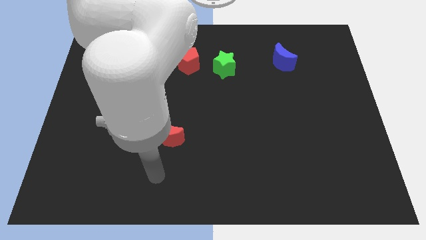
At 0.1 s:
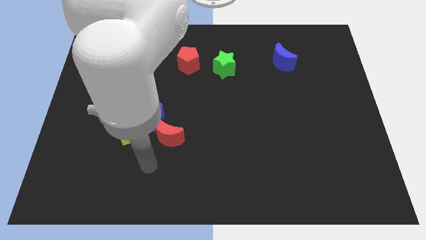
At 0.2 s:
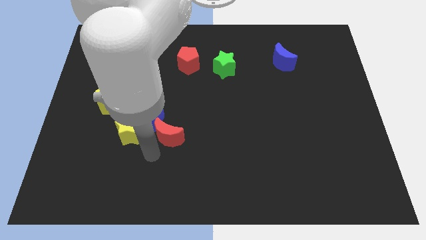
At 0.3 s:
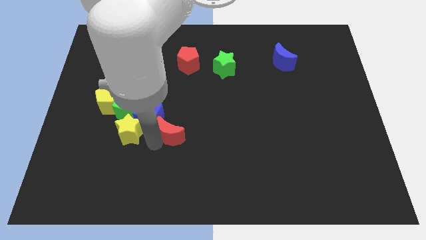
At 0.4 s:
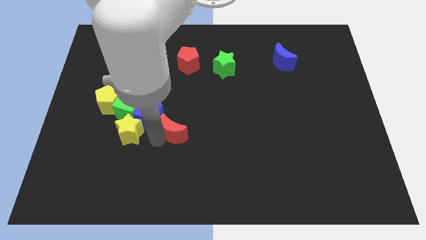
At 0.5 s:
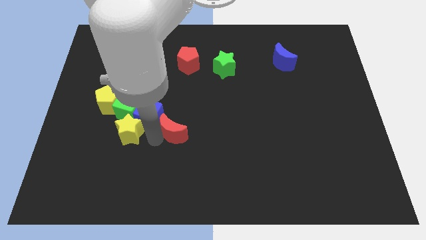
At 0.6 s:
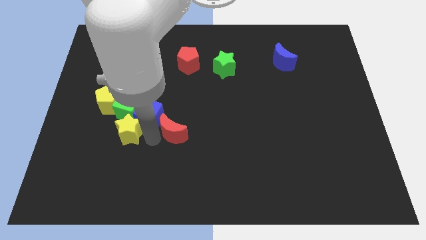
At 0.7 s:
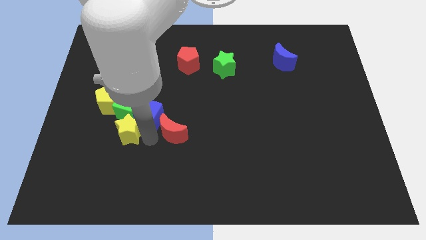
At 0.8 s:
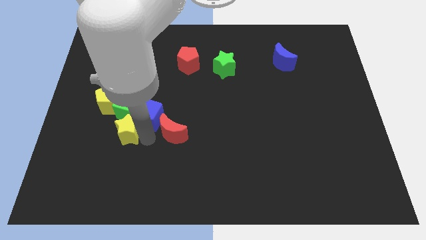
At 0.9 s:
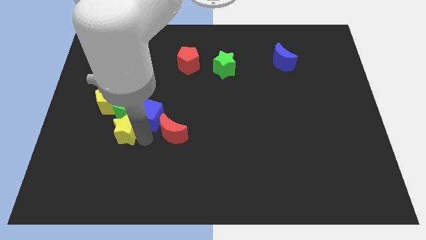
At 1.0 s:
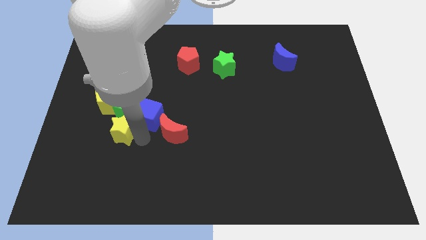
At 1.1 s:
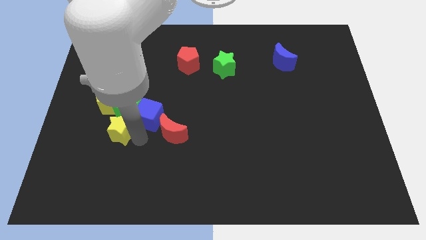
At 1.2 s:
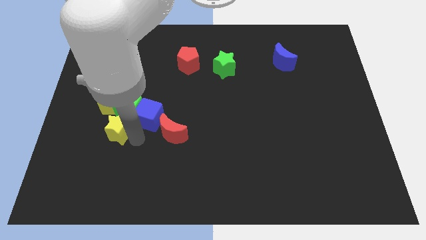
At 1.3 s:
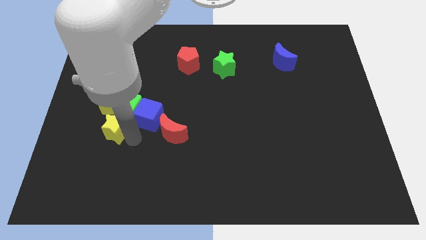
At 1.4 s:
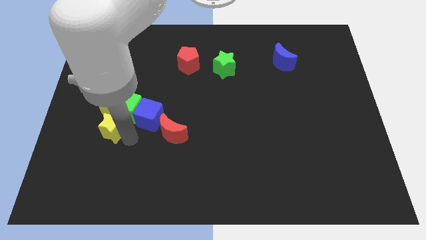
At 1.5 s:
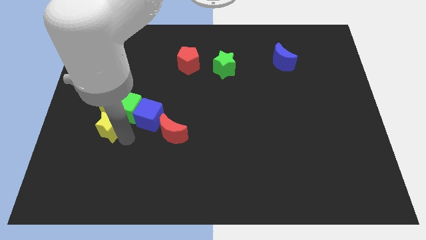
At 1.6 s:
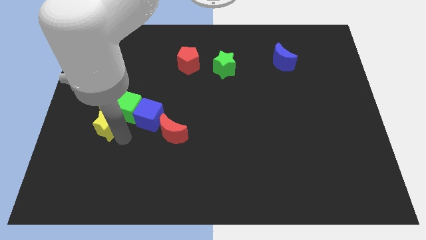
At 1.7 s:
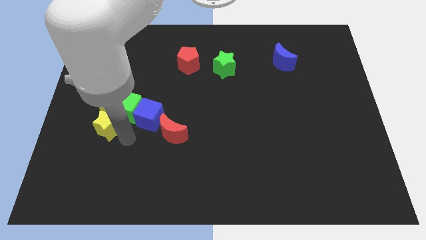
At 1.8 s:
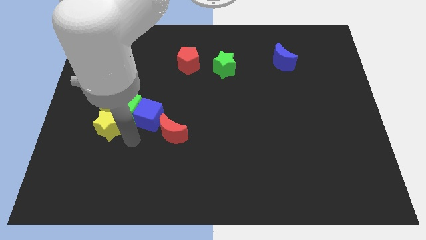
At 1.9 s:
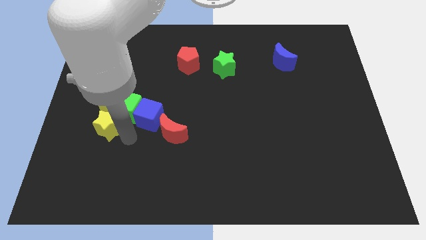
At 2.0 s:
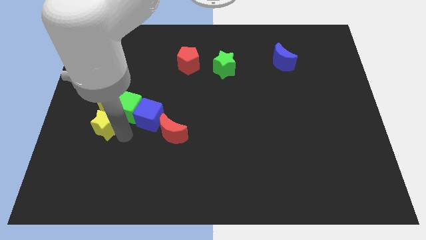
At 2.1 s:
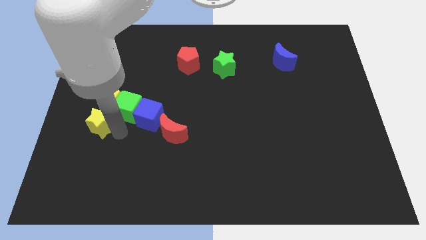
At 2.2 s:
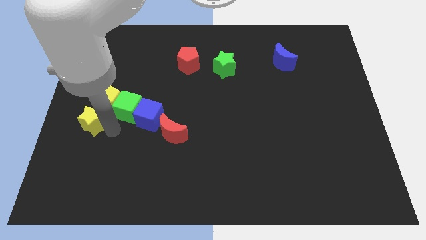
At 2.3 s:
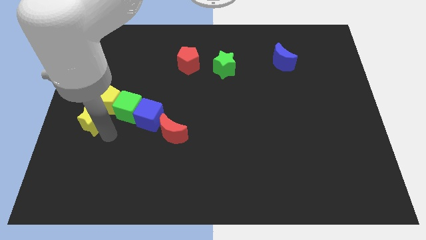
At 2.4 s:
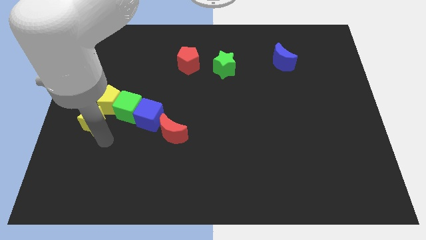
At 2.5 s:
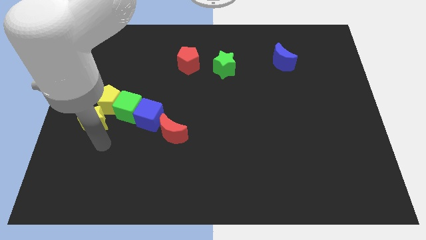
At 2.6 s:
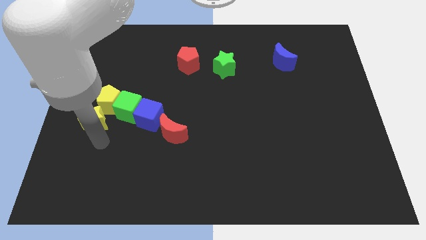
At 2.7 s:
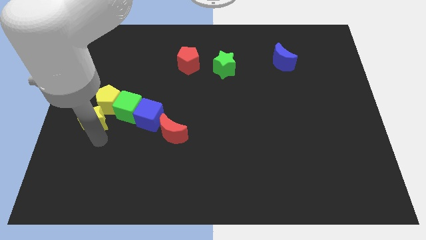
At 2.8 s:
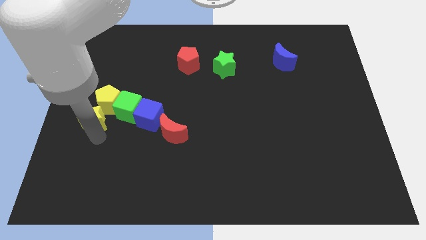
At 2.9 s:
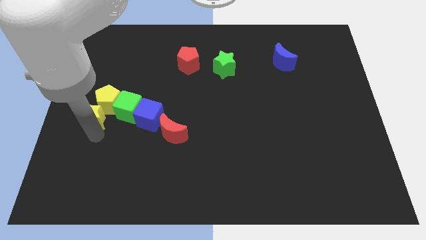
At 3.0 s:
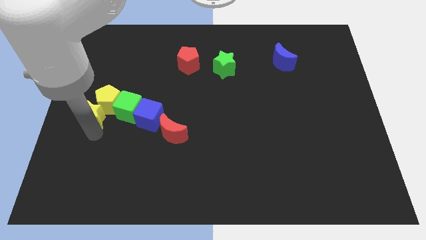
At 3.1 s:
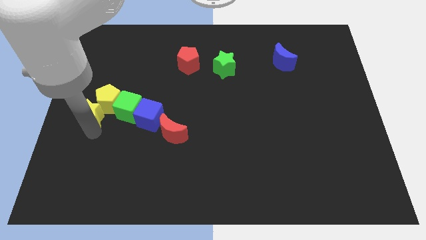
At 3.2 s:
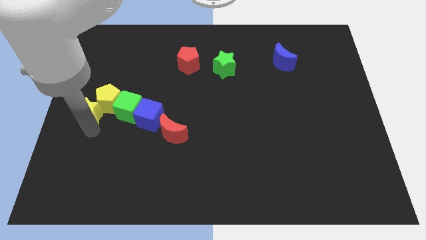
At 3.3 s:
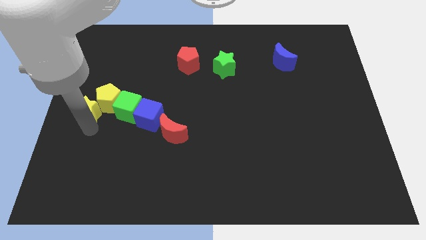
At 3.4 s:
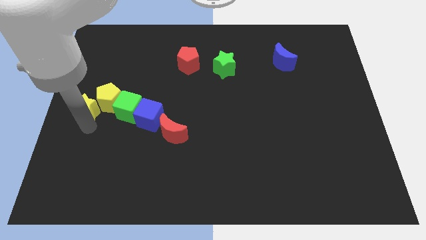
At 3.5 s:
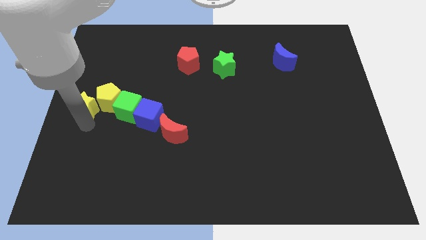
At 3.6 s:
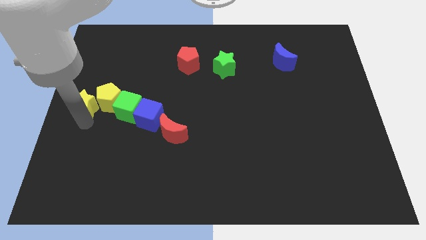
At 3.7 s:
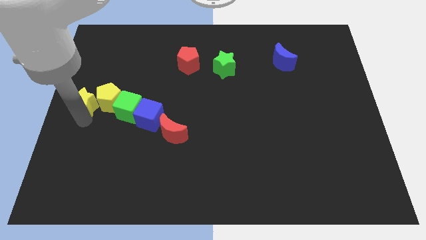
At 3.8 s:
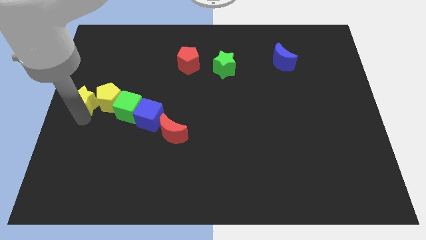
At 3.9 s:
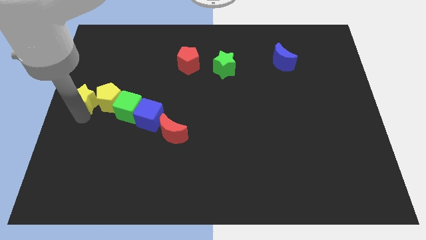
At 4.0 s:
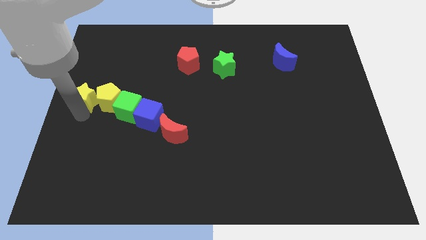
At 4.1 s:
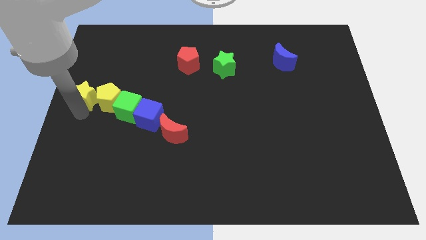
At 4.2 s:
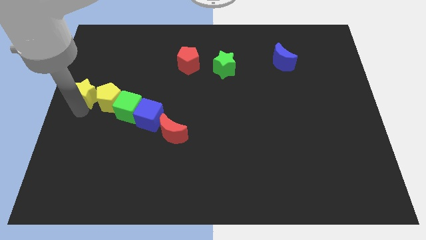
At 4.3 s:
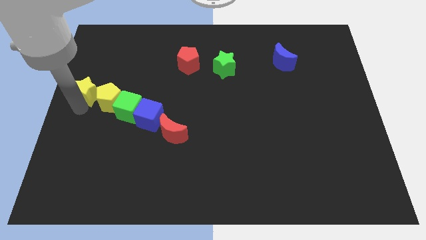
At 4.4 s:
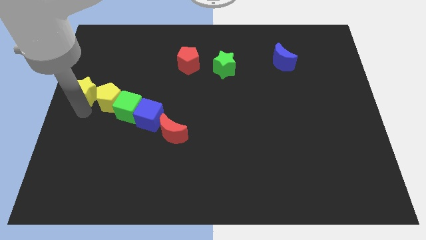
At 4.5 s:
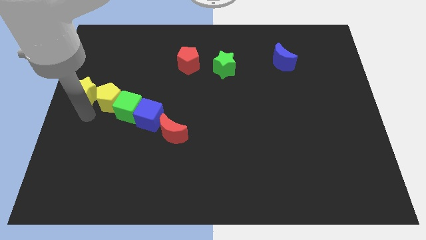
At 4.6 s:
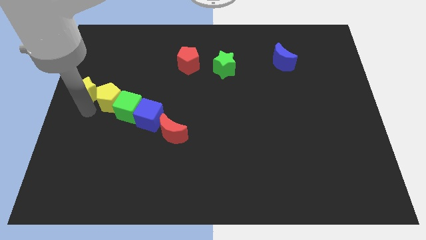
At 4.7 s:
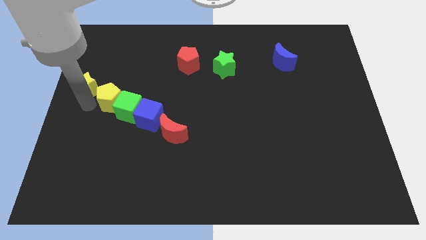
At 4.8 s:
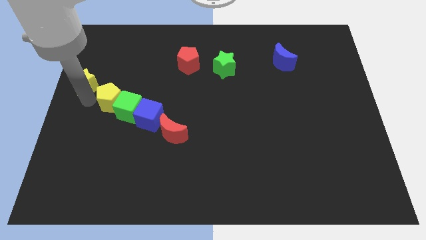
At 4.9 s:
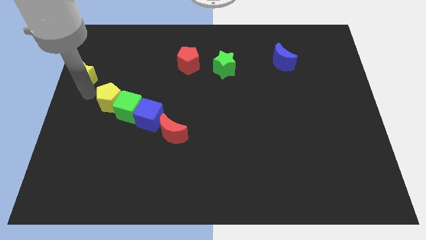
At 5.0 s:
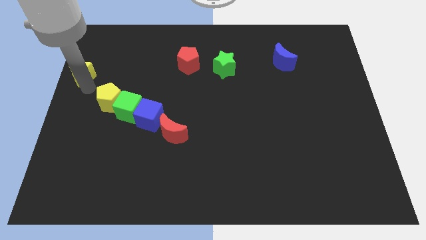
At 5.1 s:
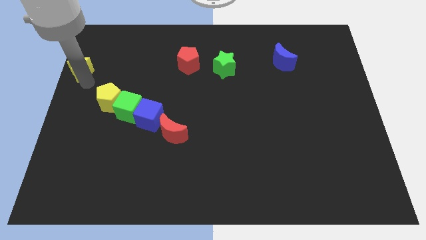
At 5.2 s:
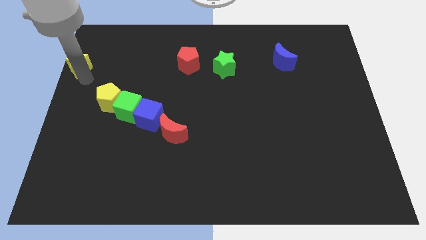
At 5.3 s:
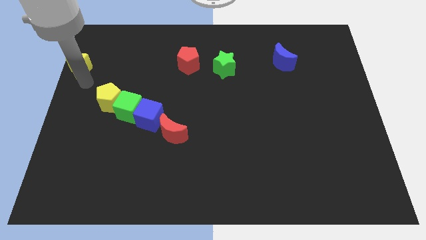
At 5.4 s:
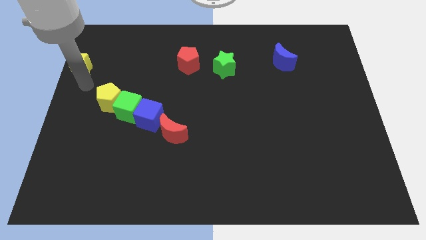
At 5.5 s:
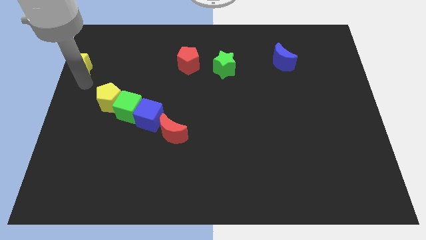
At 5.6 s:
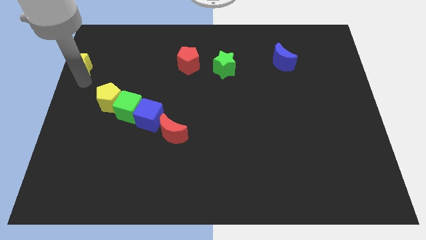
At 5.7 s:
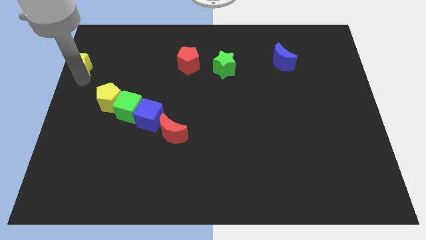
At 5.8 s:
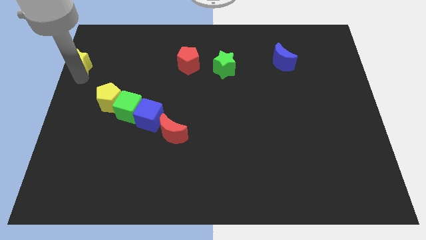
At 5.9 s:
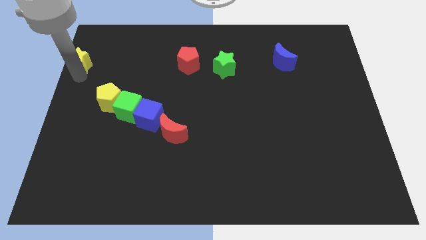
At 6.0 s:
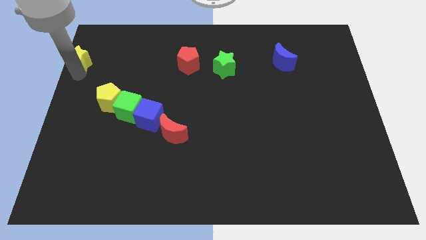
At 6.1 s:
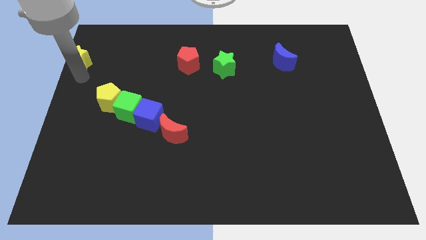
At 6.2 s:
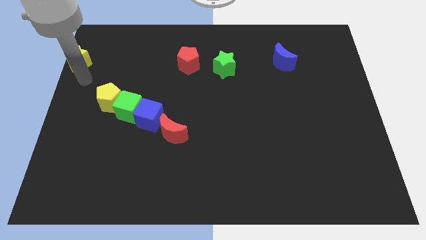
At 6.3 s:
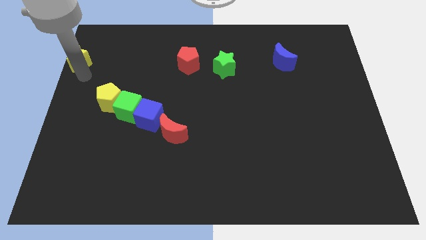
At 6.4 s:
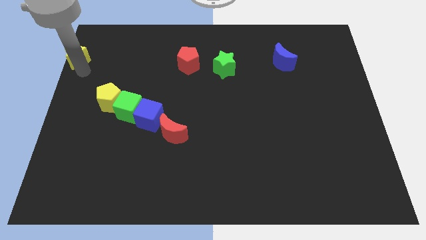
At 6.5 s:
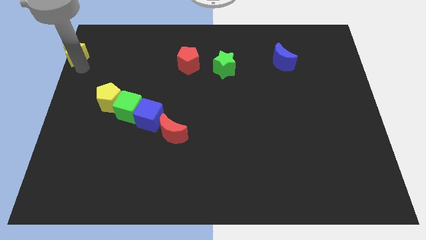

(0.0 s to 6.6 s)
push the yellow star to the upper left corner

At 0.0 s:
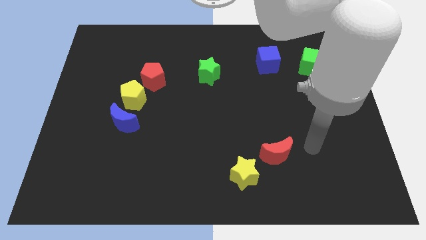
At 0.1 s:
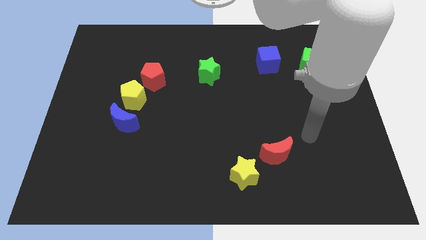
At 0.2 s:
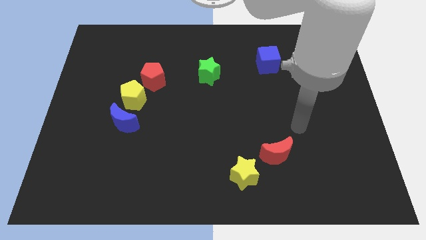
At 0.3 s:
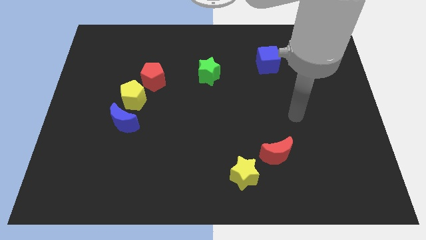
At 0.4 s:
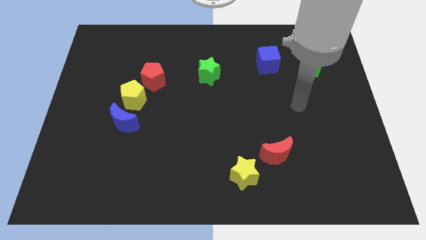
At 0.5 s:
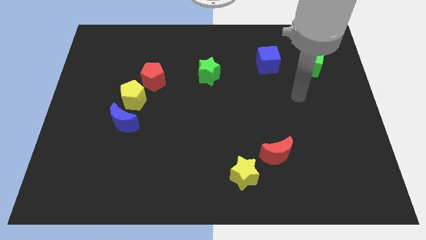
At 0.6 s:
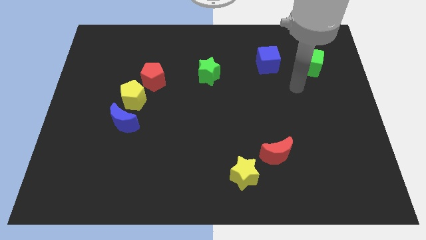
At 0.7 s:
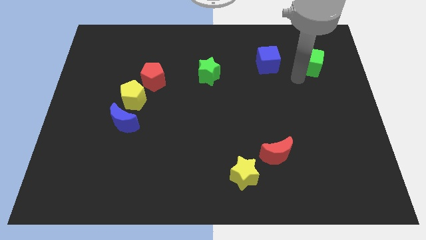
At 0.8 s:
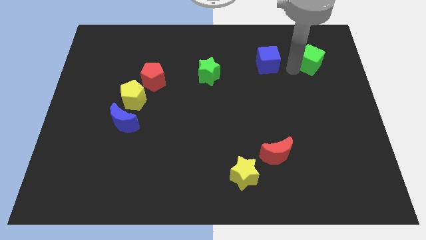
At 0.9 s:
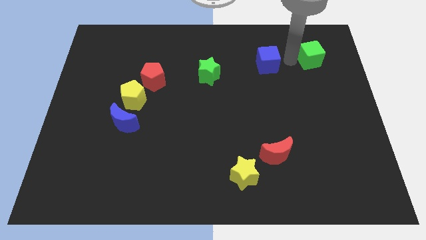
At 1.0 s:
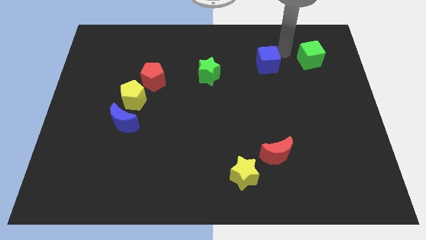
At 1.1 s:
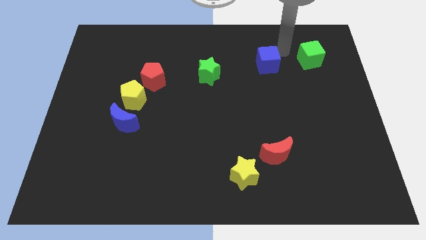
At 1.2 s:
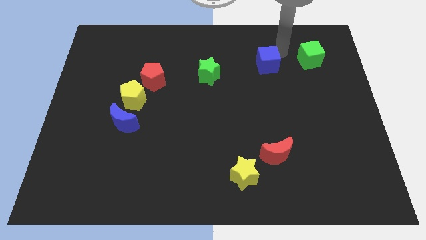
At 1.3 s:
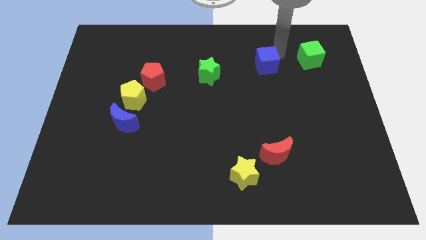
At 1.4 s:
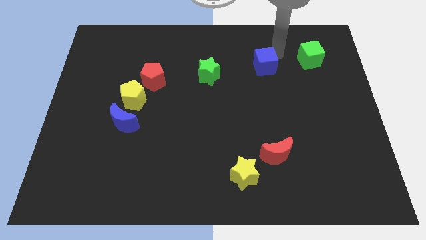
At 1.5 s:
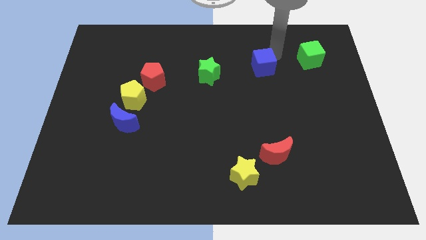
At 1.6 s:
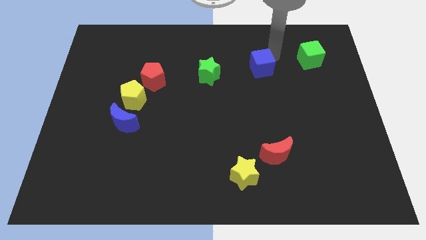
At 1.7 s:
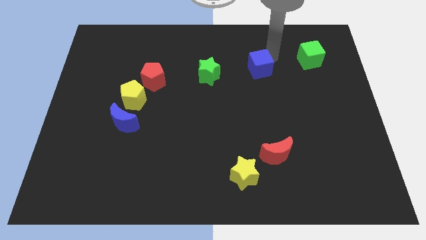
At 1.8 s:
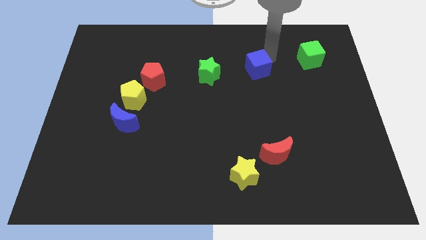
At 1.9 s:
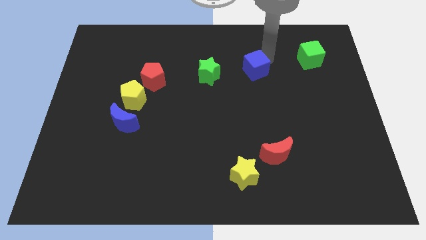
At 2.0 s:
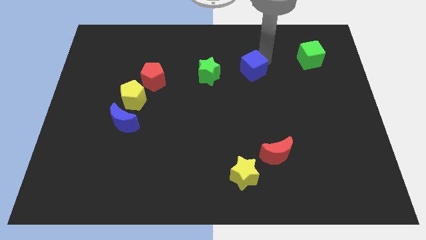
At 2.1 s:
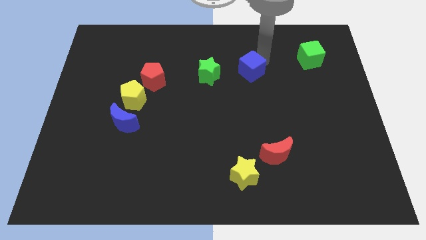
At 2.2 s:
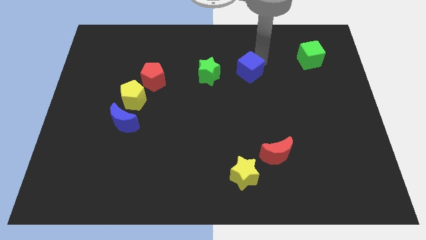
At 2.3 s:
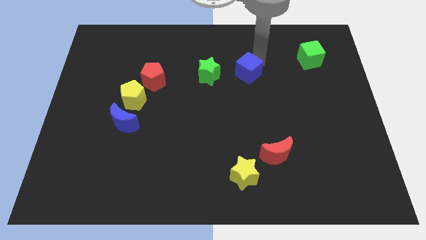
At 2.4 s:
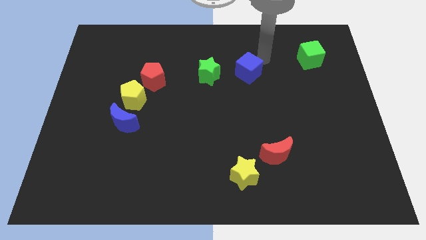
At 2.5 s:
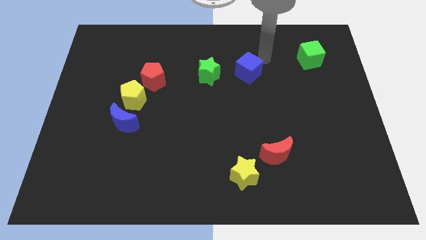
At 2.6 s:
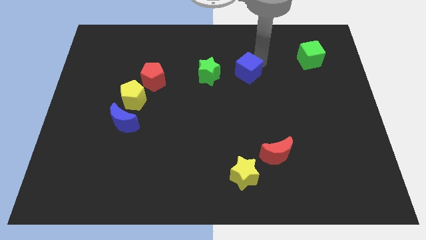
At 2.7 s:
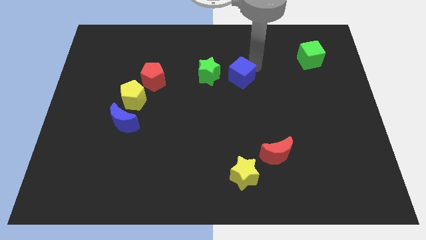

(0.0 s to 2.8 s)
push the blue cube to the center of the board
